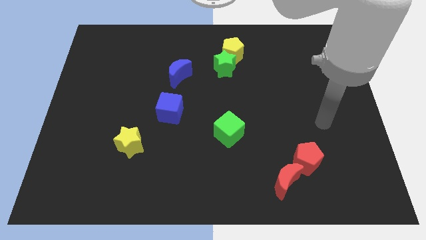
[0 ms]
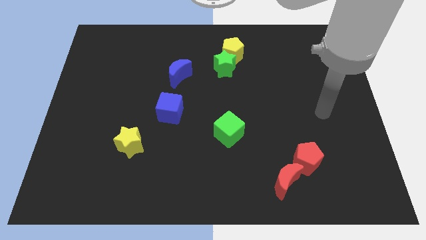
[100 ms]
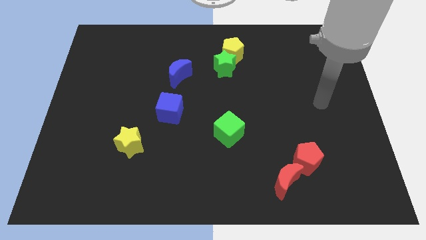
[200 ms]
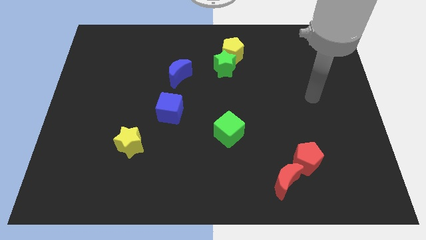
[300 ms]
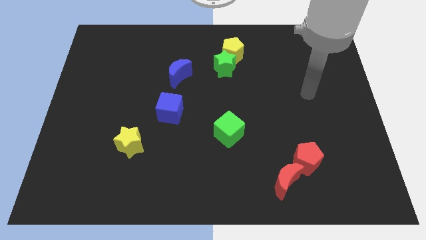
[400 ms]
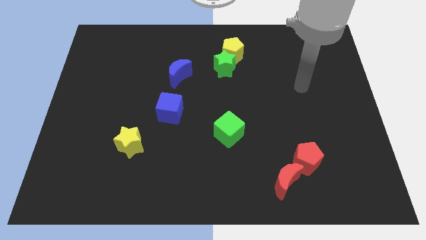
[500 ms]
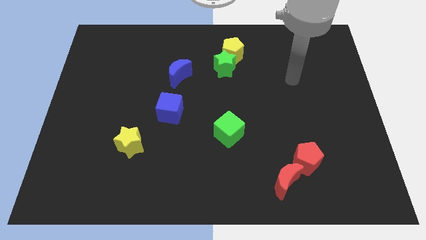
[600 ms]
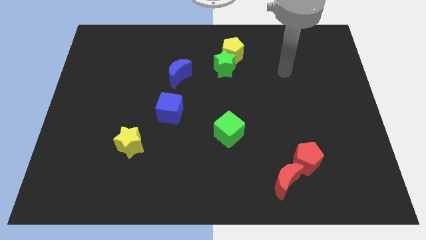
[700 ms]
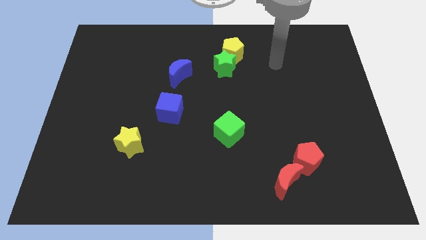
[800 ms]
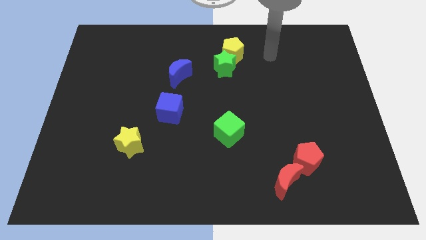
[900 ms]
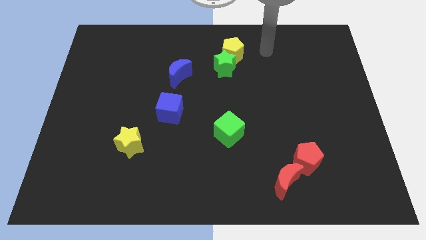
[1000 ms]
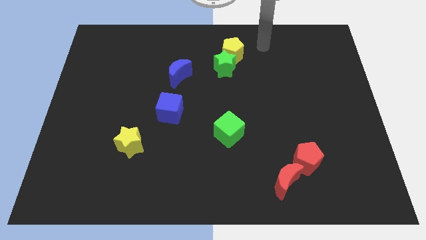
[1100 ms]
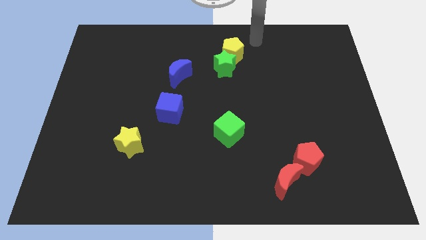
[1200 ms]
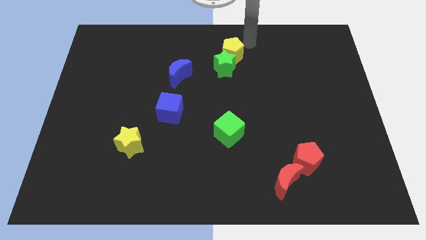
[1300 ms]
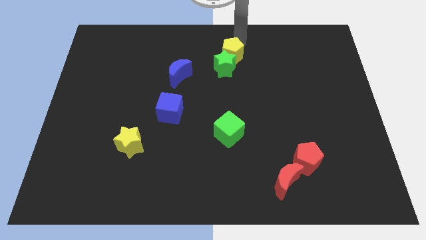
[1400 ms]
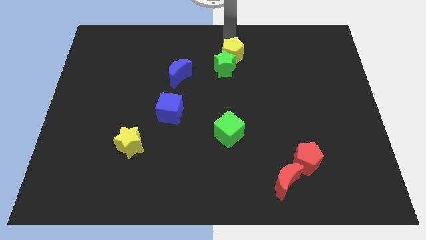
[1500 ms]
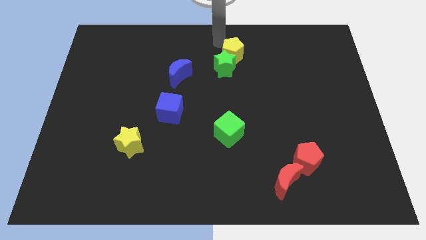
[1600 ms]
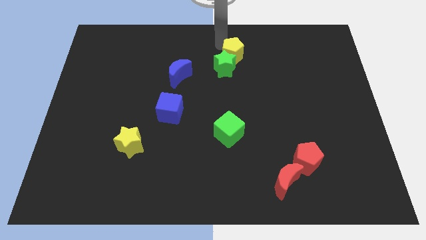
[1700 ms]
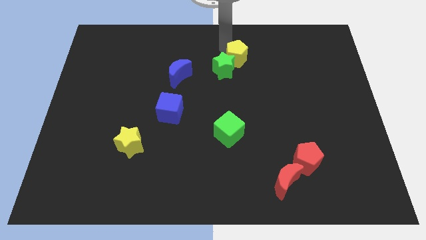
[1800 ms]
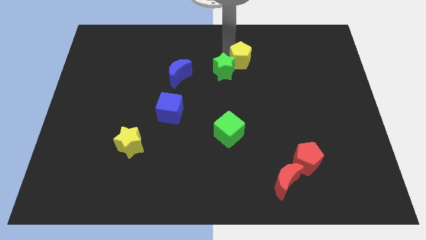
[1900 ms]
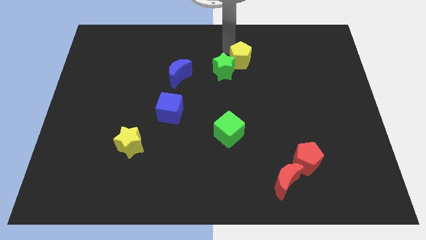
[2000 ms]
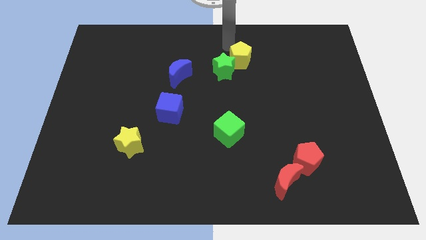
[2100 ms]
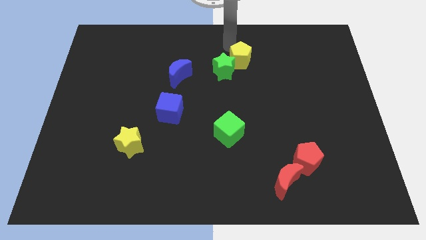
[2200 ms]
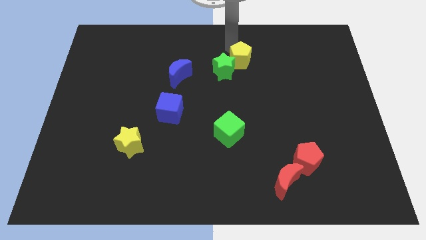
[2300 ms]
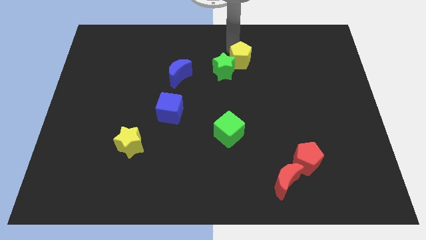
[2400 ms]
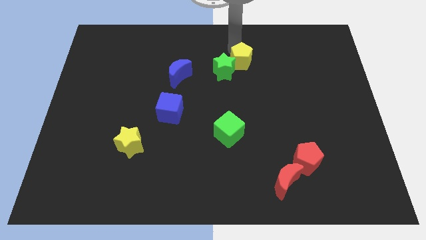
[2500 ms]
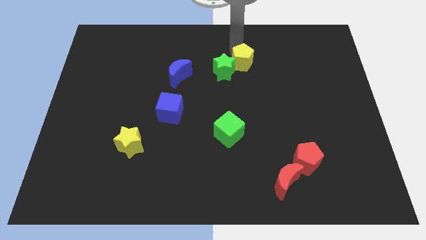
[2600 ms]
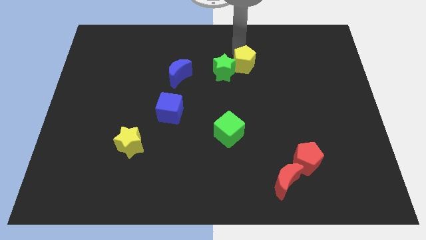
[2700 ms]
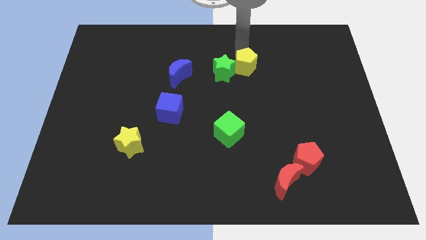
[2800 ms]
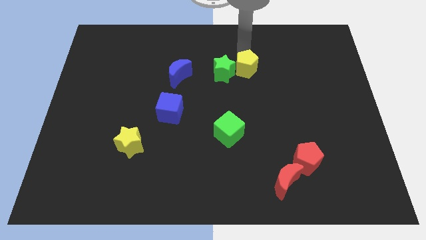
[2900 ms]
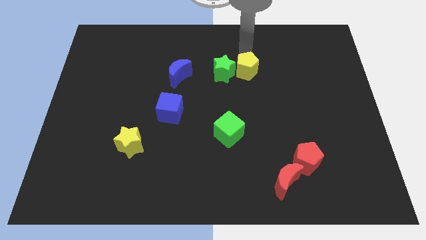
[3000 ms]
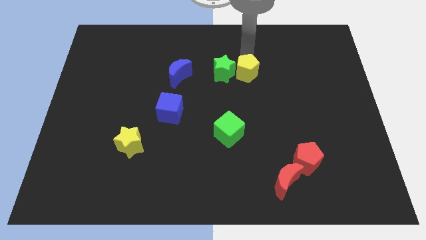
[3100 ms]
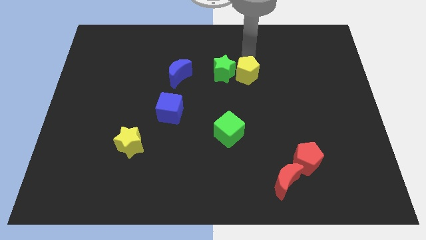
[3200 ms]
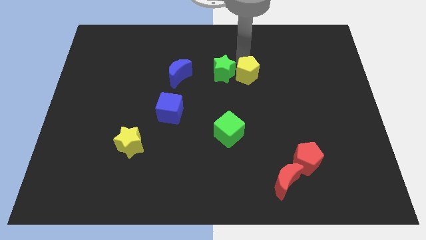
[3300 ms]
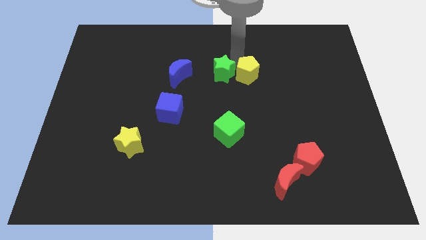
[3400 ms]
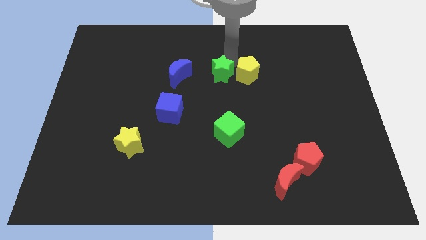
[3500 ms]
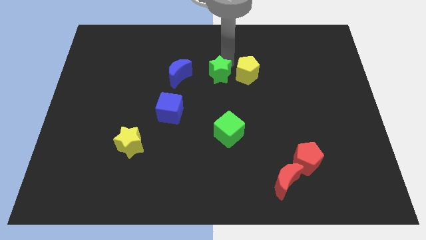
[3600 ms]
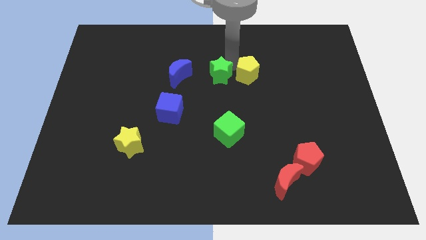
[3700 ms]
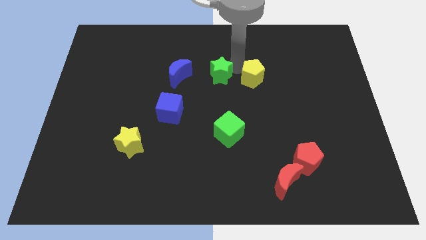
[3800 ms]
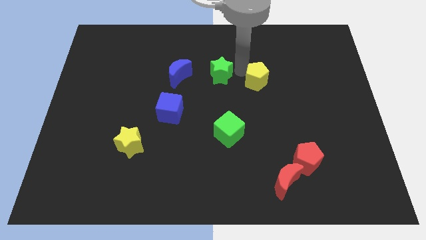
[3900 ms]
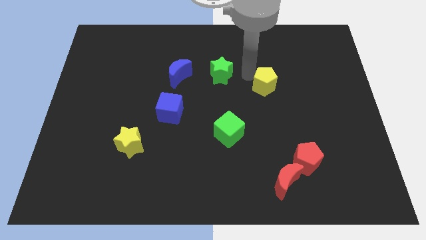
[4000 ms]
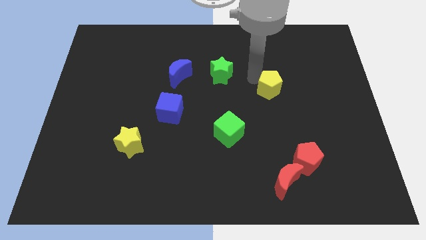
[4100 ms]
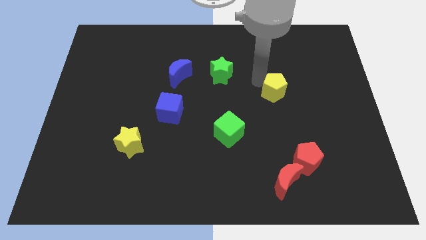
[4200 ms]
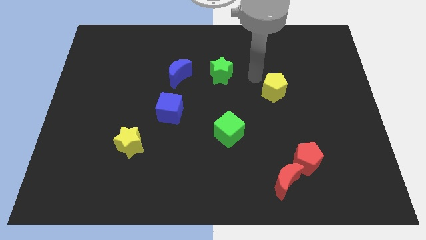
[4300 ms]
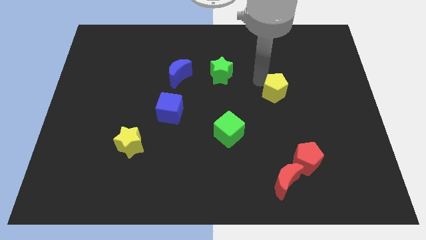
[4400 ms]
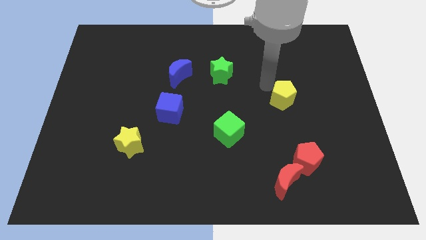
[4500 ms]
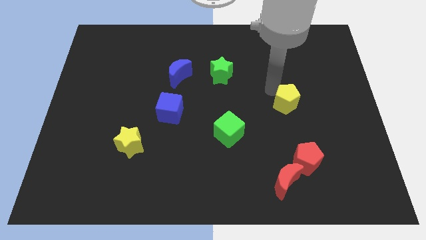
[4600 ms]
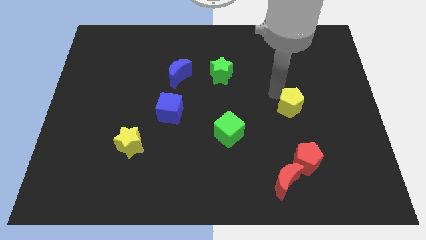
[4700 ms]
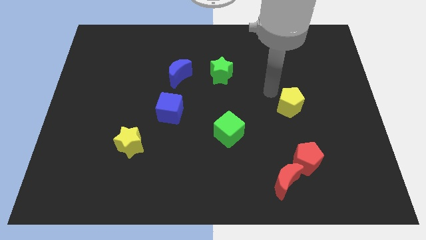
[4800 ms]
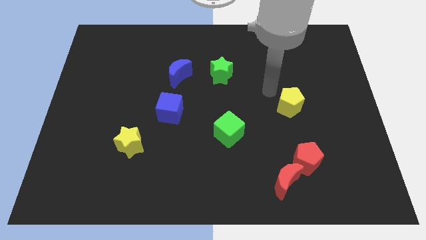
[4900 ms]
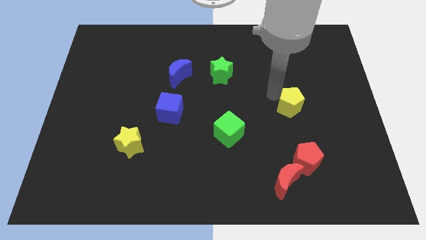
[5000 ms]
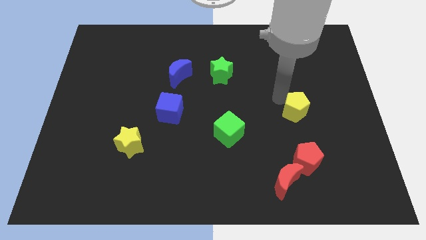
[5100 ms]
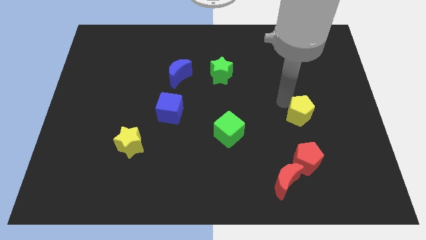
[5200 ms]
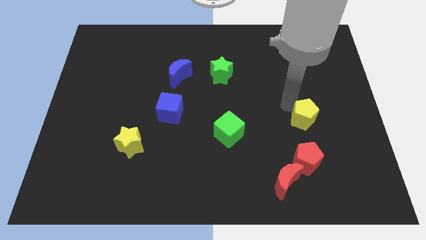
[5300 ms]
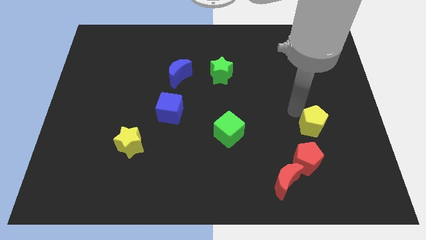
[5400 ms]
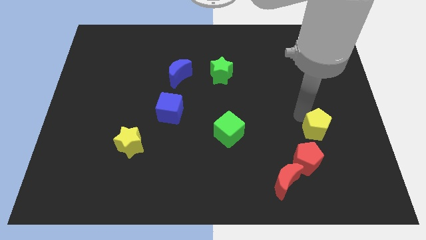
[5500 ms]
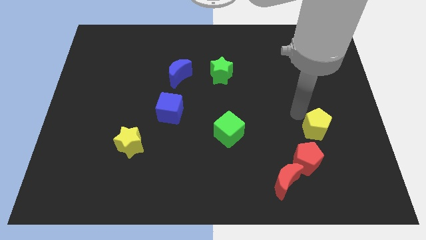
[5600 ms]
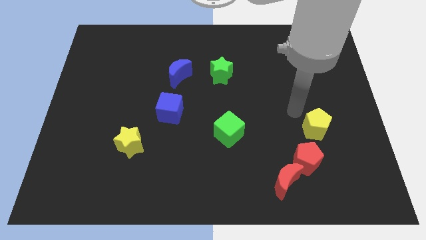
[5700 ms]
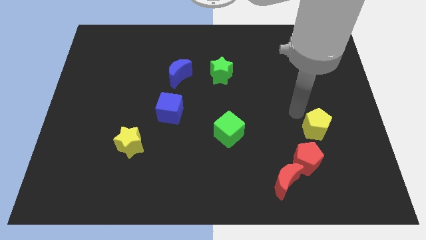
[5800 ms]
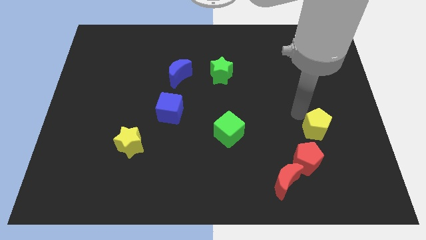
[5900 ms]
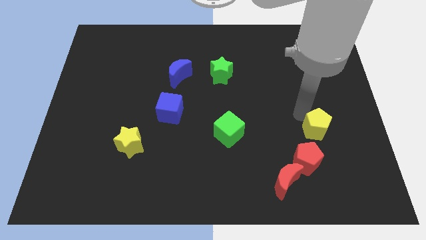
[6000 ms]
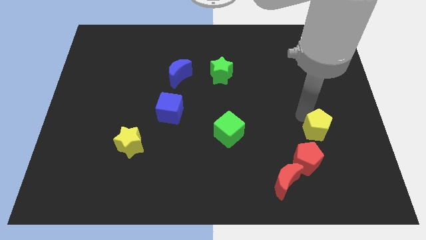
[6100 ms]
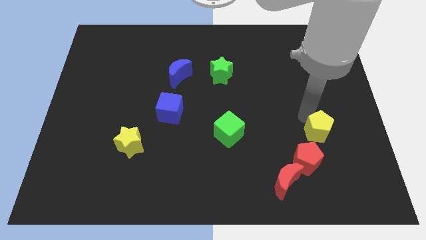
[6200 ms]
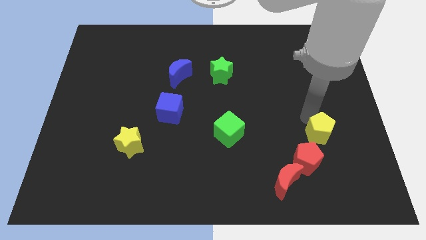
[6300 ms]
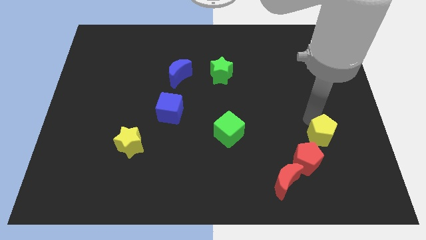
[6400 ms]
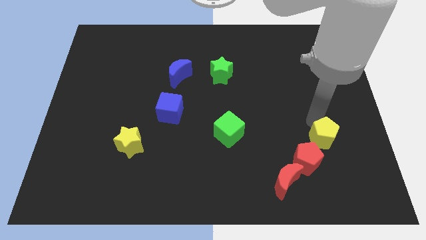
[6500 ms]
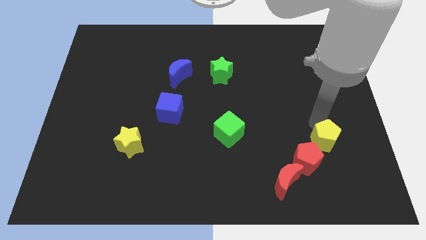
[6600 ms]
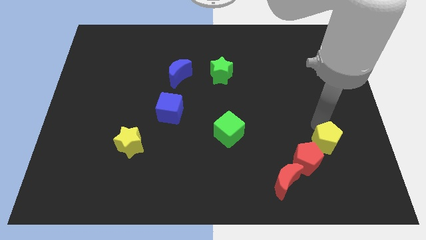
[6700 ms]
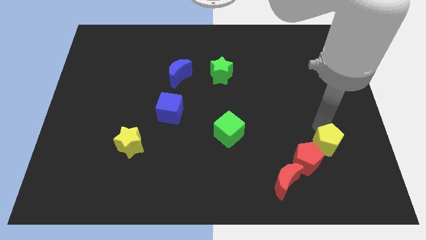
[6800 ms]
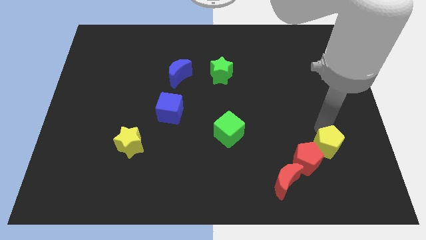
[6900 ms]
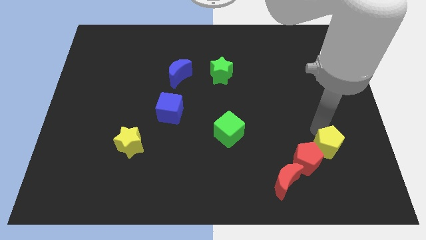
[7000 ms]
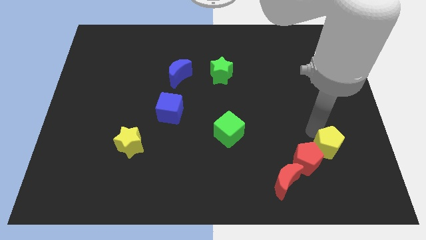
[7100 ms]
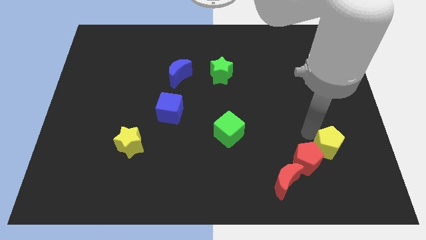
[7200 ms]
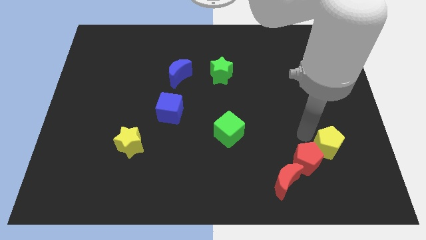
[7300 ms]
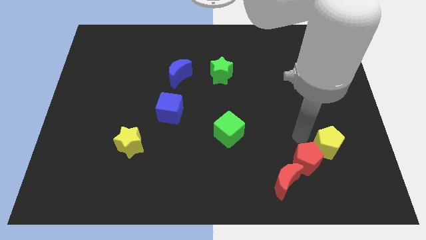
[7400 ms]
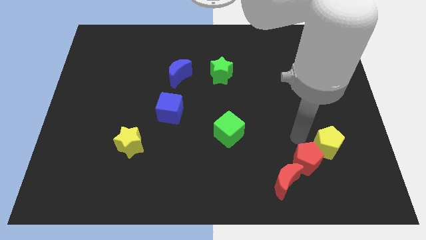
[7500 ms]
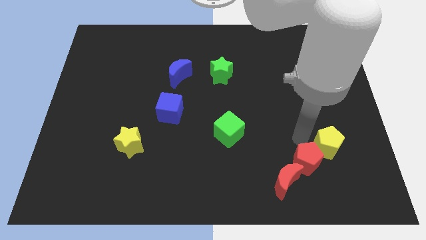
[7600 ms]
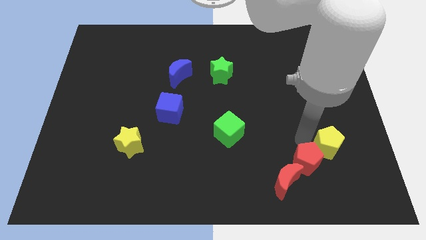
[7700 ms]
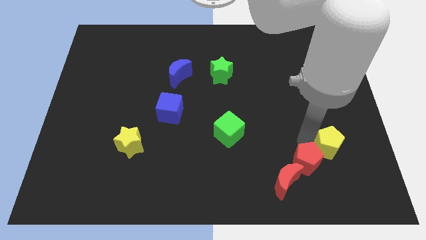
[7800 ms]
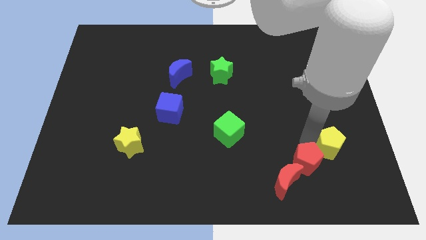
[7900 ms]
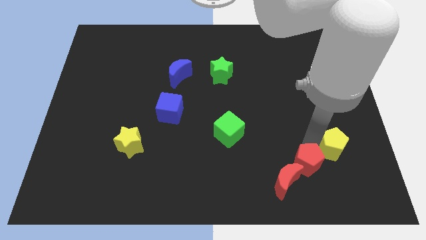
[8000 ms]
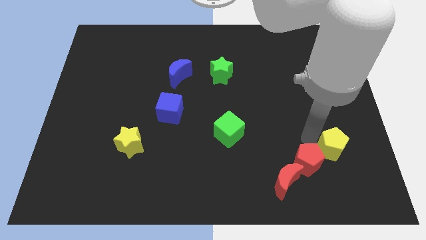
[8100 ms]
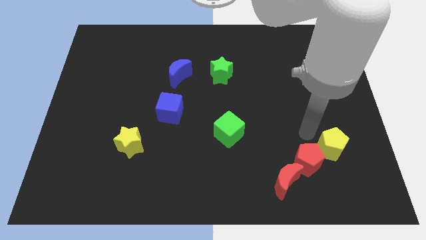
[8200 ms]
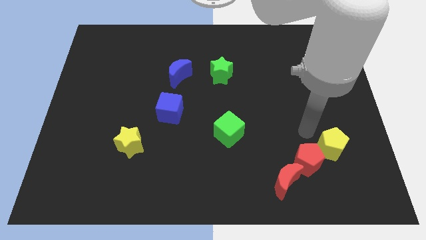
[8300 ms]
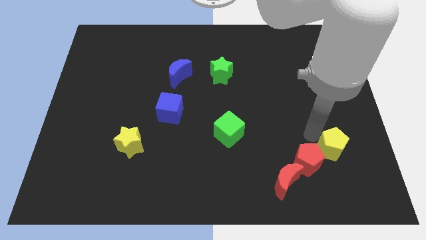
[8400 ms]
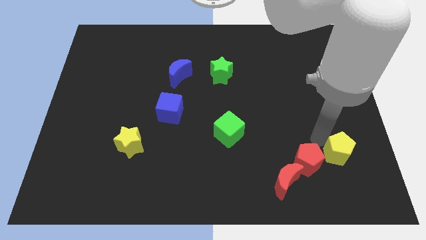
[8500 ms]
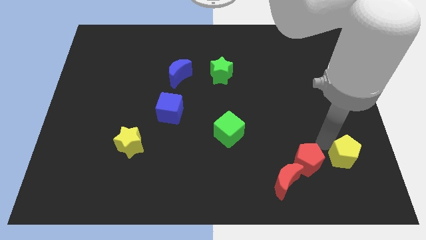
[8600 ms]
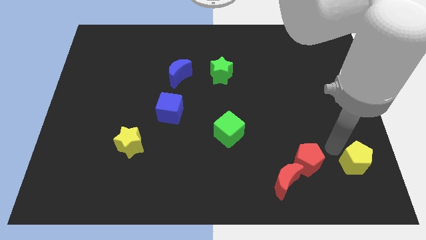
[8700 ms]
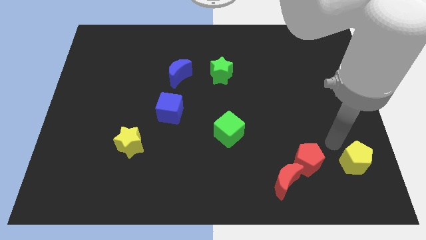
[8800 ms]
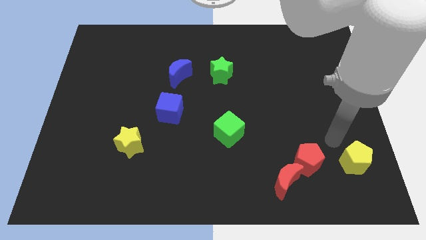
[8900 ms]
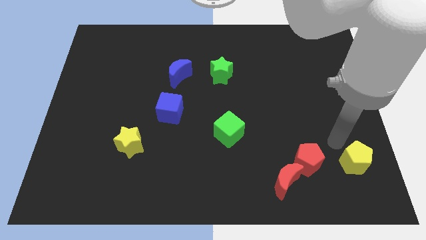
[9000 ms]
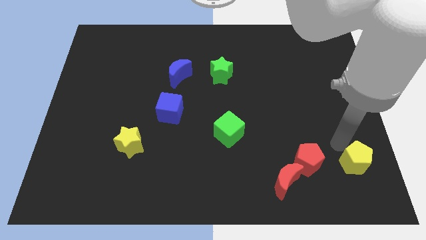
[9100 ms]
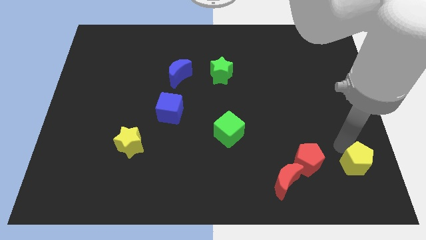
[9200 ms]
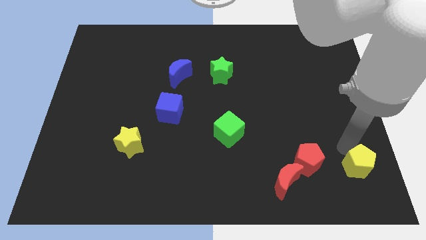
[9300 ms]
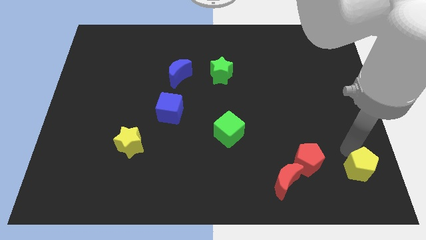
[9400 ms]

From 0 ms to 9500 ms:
put the yellow pentagon to the lower right corner
